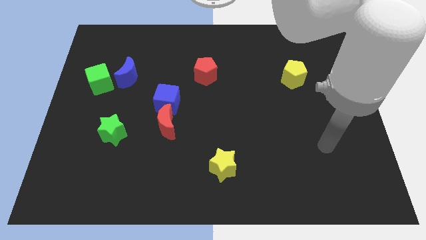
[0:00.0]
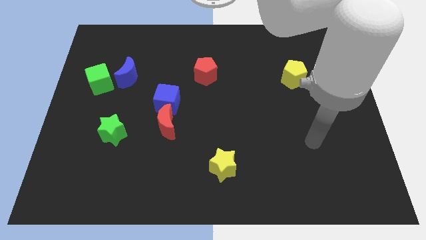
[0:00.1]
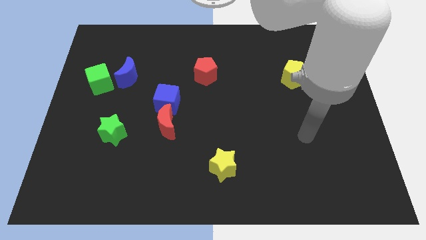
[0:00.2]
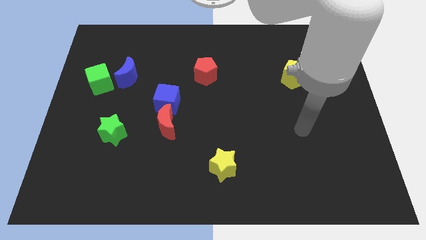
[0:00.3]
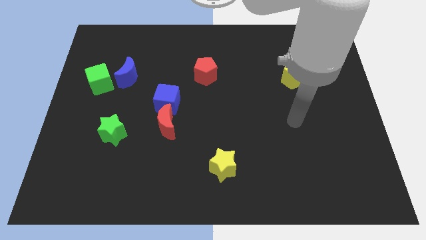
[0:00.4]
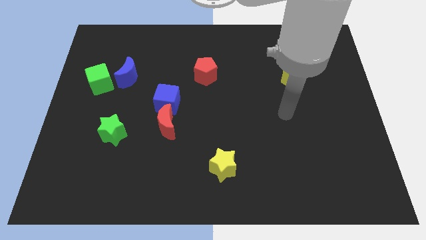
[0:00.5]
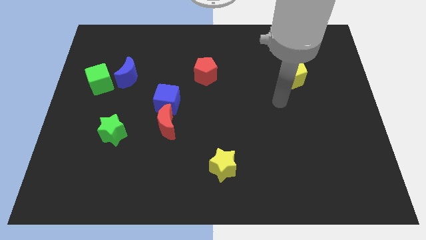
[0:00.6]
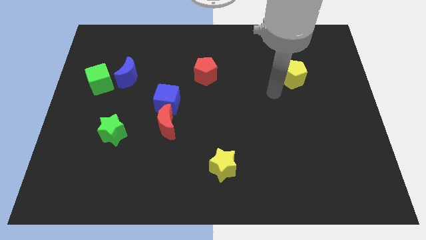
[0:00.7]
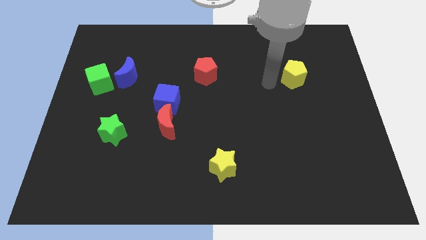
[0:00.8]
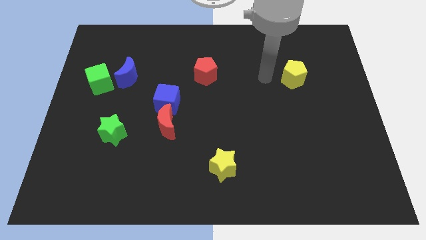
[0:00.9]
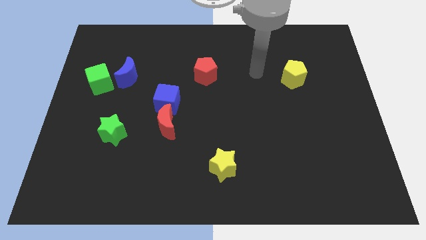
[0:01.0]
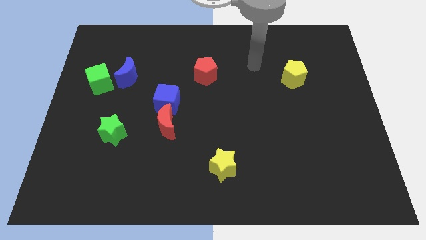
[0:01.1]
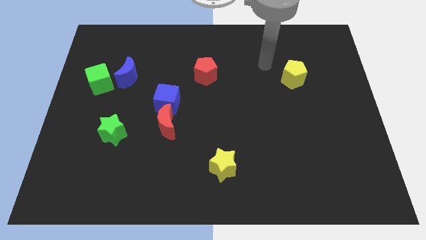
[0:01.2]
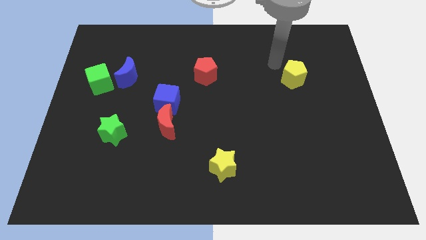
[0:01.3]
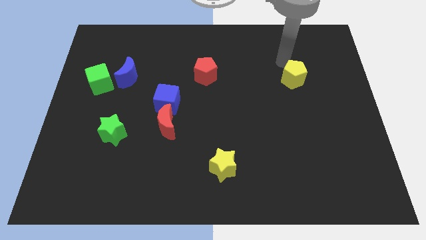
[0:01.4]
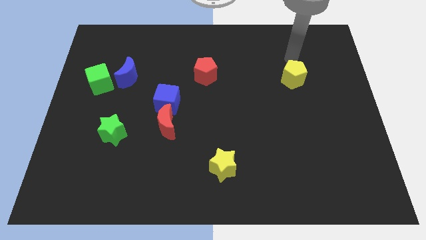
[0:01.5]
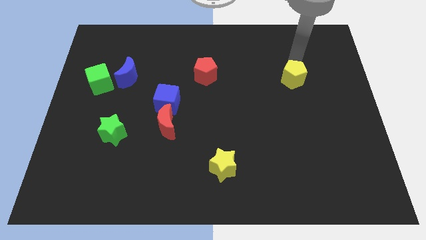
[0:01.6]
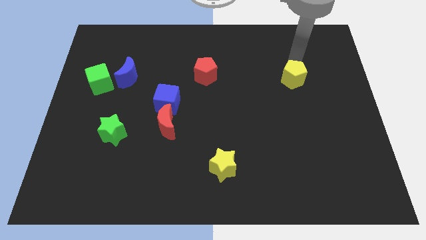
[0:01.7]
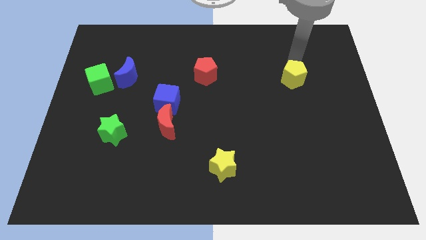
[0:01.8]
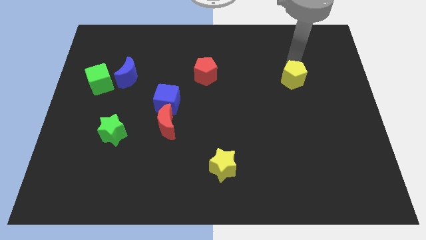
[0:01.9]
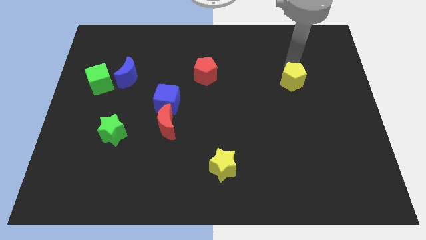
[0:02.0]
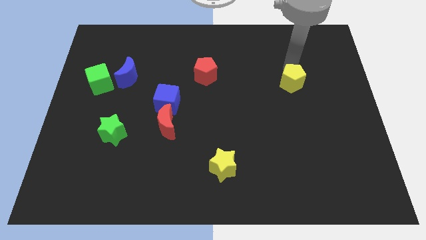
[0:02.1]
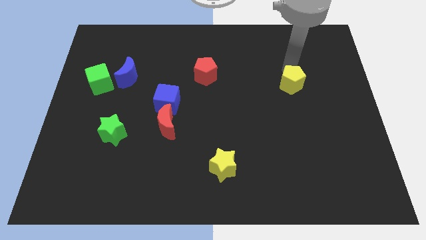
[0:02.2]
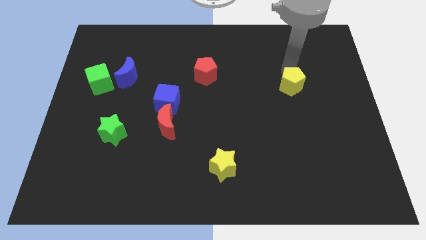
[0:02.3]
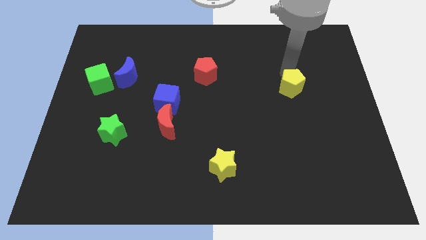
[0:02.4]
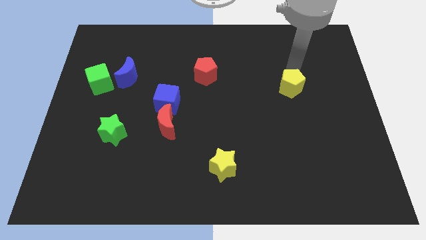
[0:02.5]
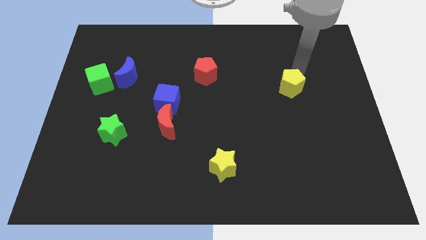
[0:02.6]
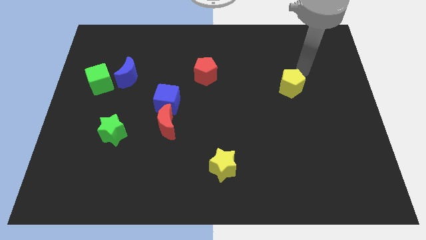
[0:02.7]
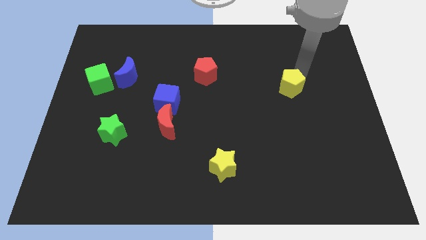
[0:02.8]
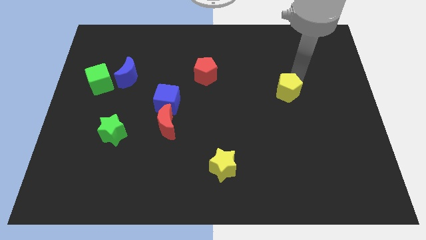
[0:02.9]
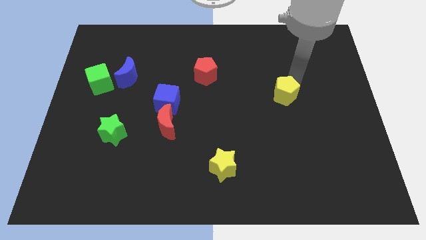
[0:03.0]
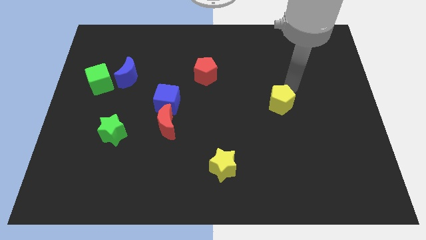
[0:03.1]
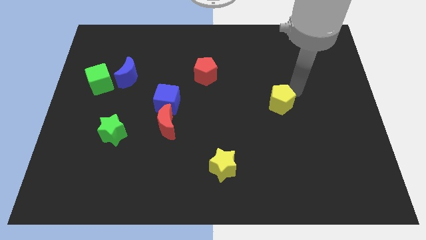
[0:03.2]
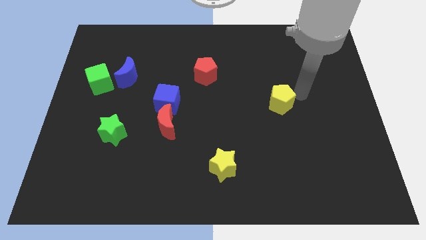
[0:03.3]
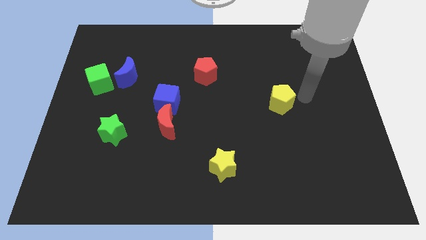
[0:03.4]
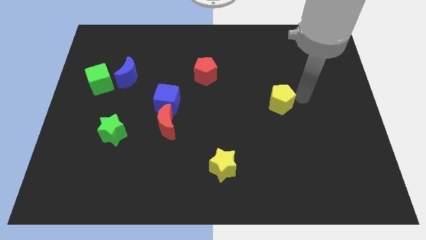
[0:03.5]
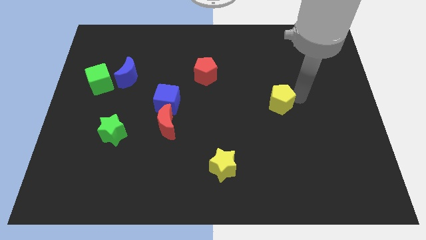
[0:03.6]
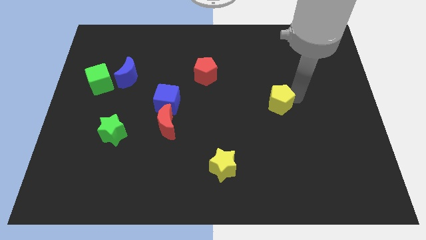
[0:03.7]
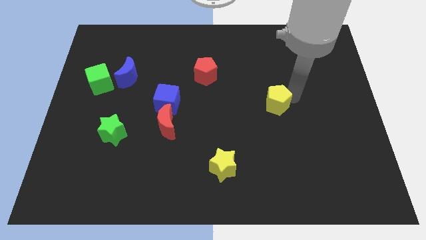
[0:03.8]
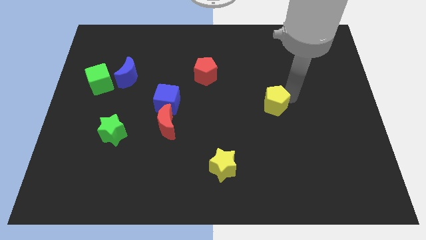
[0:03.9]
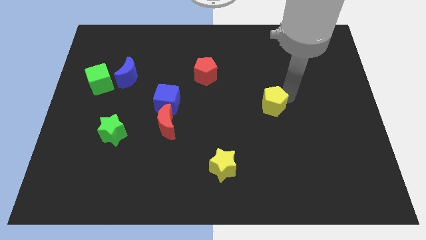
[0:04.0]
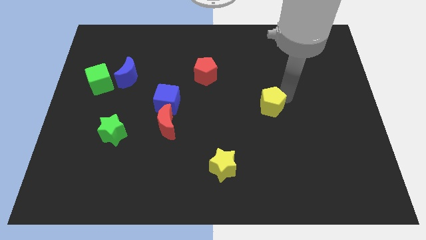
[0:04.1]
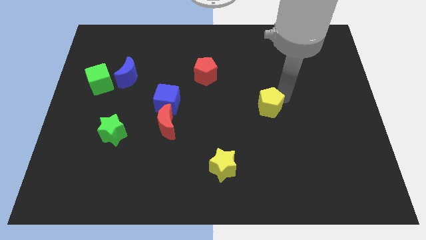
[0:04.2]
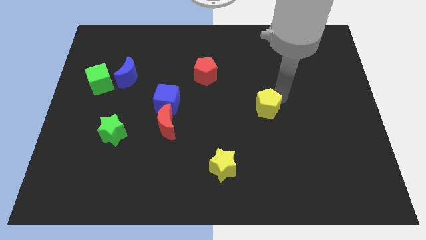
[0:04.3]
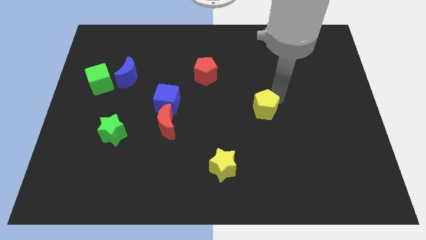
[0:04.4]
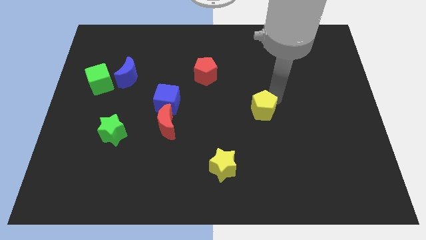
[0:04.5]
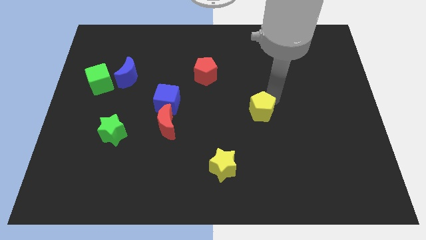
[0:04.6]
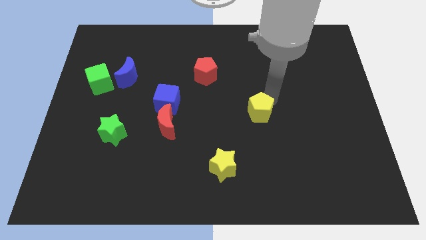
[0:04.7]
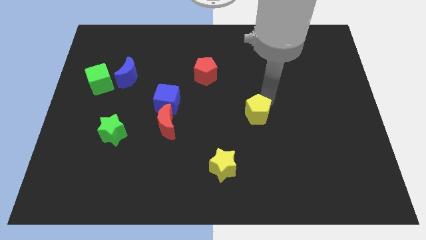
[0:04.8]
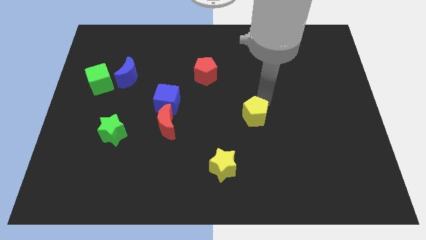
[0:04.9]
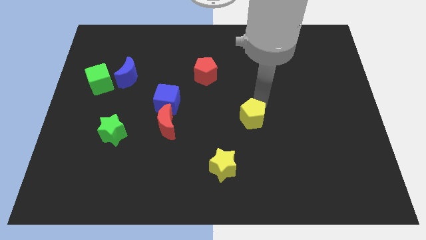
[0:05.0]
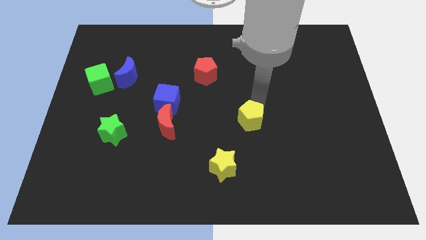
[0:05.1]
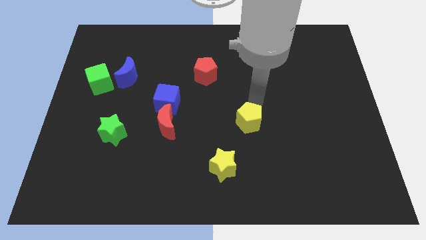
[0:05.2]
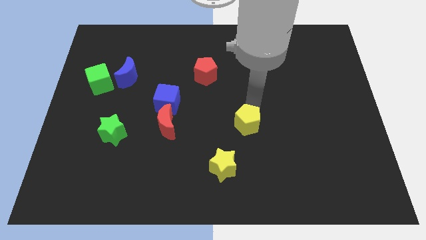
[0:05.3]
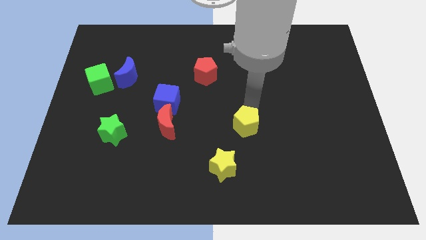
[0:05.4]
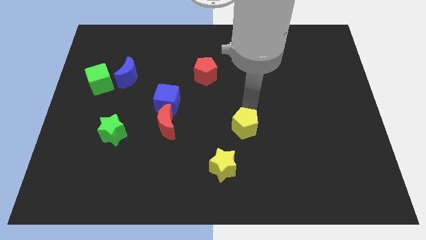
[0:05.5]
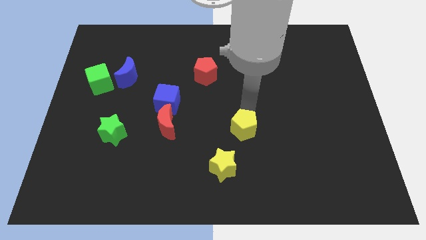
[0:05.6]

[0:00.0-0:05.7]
slide the yellow pentagon downwards and to the left diagonally

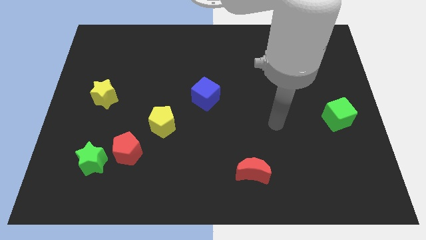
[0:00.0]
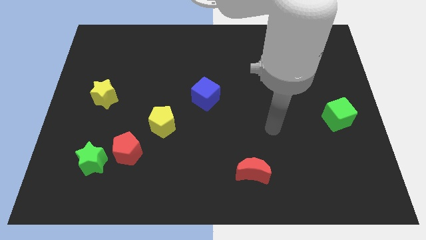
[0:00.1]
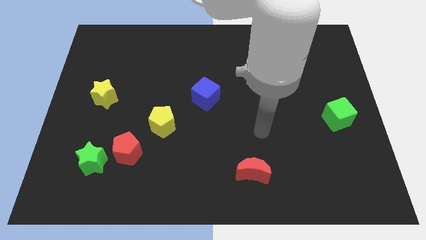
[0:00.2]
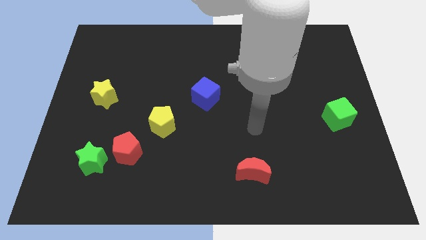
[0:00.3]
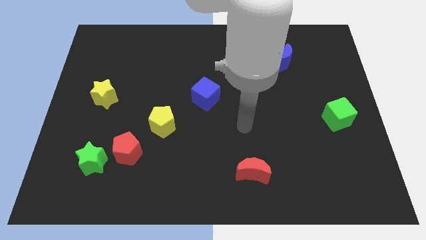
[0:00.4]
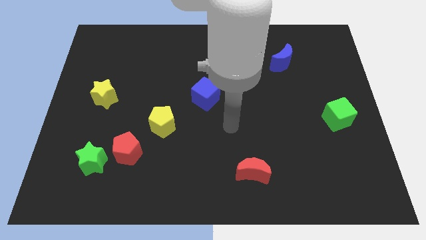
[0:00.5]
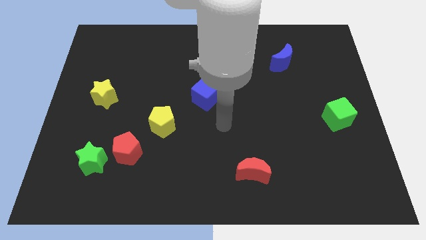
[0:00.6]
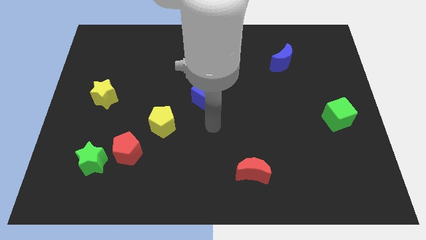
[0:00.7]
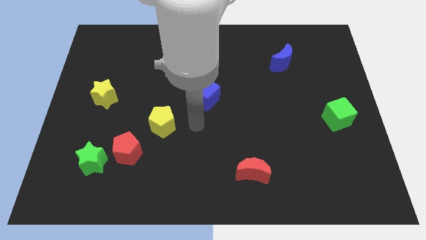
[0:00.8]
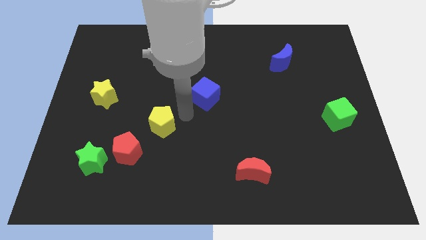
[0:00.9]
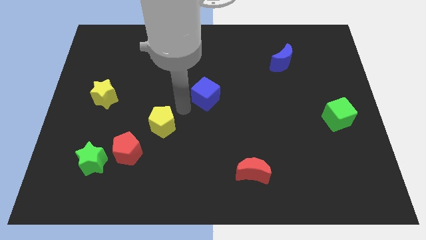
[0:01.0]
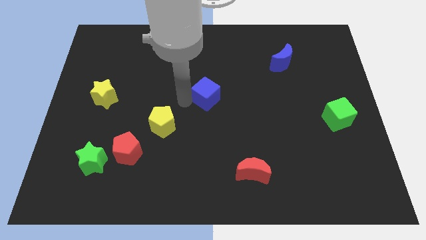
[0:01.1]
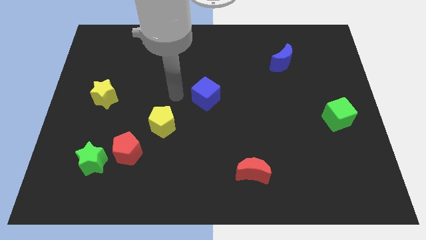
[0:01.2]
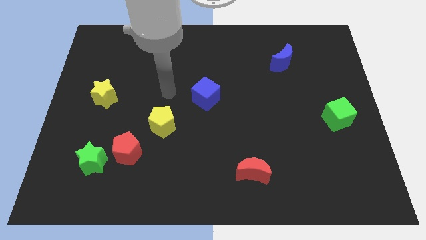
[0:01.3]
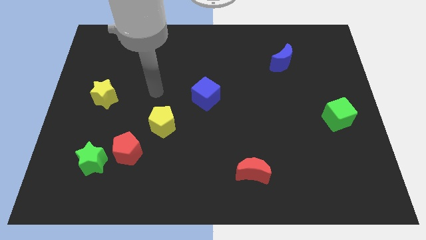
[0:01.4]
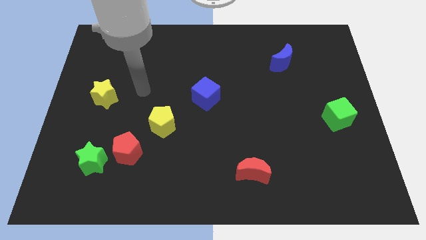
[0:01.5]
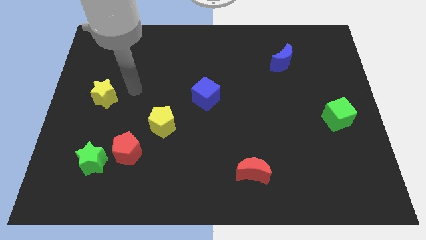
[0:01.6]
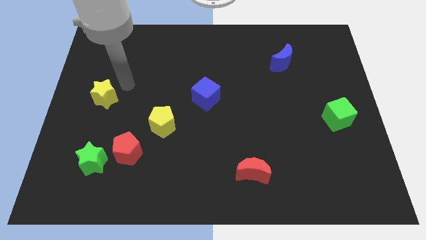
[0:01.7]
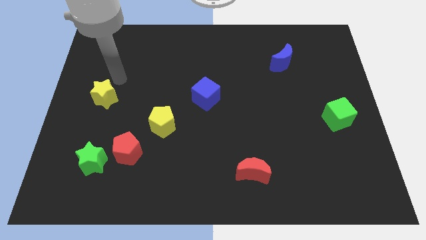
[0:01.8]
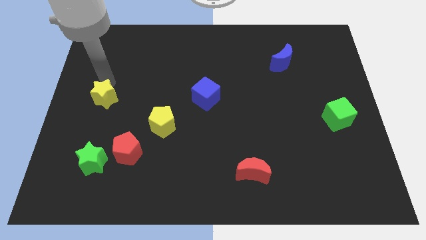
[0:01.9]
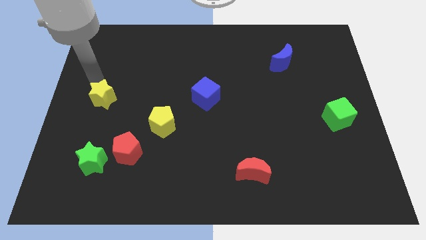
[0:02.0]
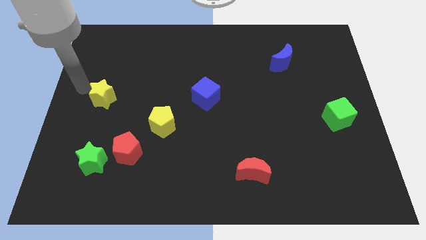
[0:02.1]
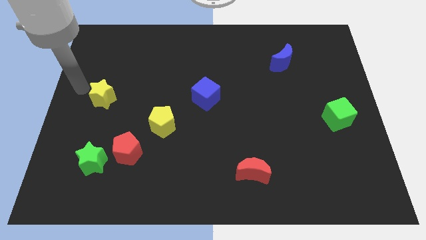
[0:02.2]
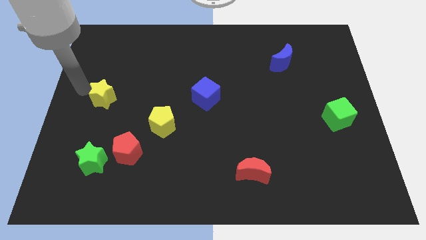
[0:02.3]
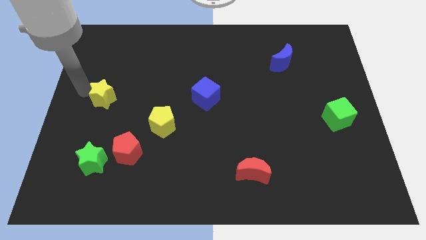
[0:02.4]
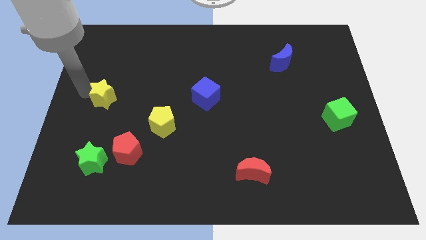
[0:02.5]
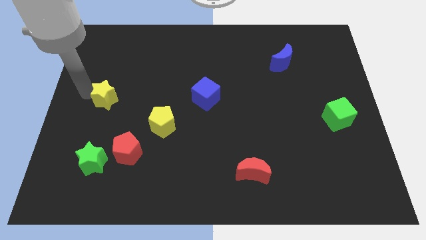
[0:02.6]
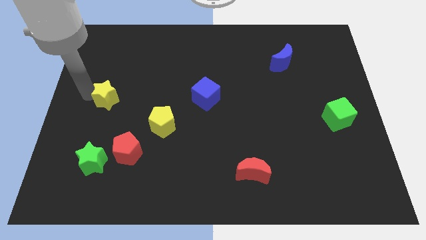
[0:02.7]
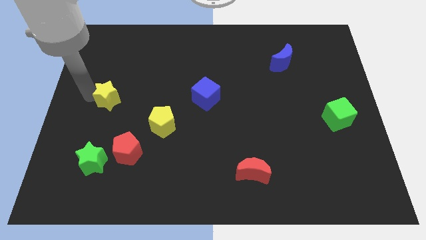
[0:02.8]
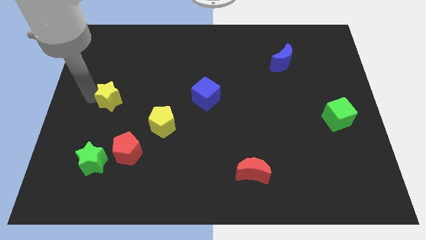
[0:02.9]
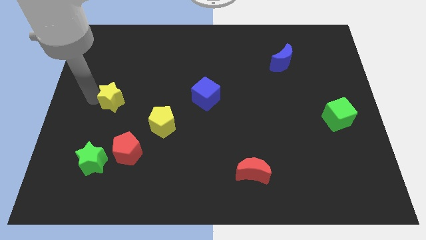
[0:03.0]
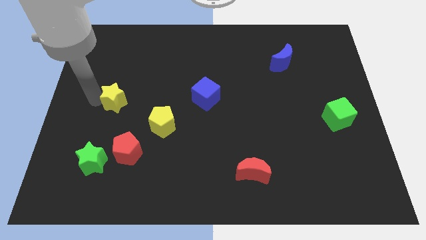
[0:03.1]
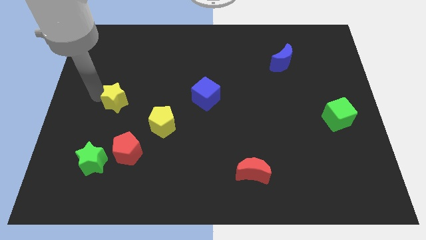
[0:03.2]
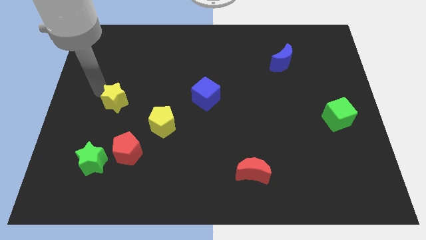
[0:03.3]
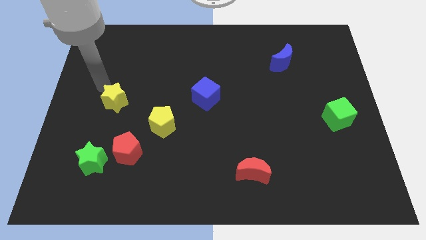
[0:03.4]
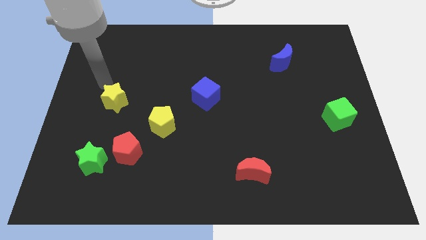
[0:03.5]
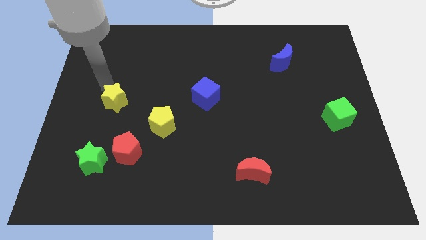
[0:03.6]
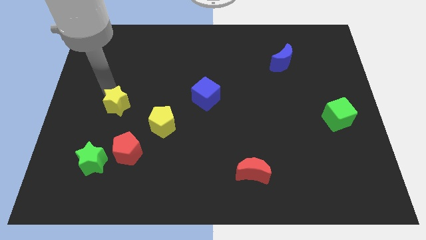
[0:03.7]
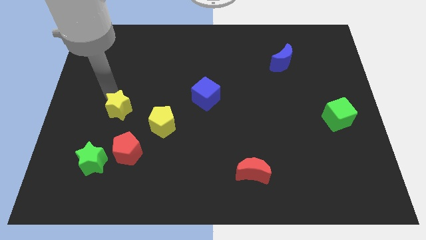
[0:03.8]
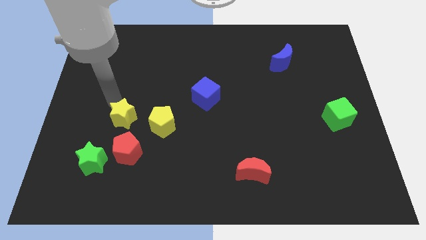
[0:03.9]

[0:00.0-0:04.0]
slightly push the yellow star downwards and then right
